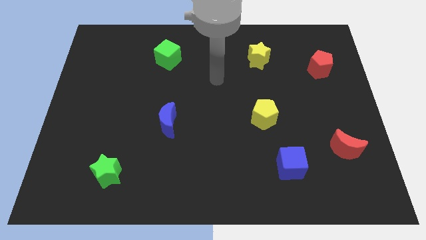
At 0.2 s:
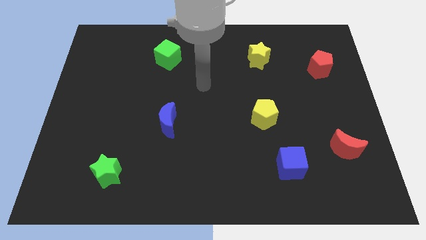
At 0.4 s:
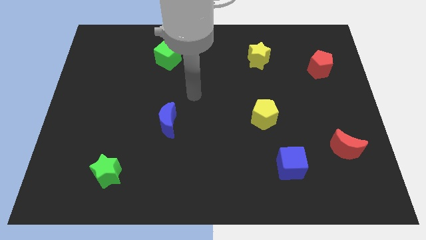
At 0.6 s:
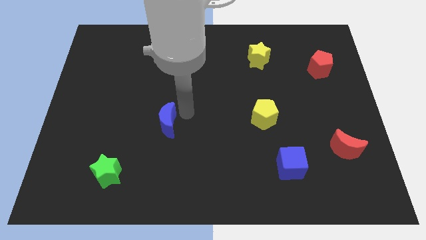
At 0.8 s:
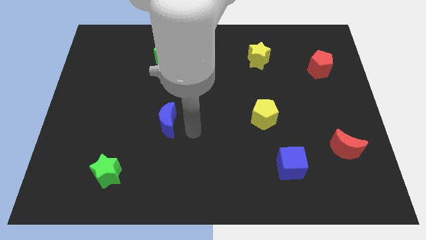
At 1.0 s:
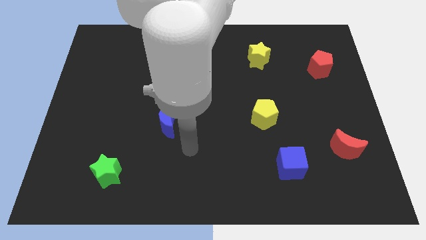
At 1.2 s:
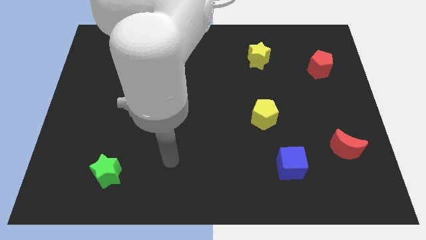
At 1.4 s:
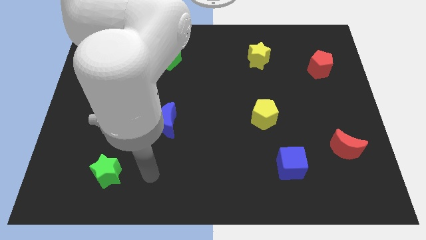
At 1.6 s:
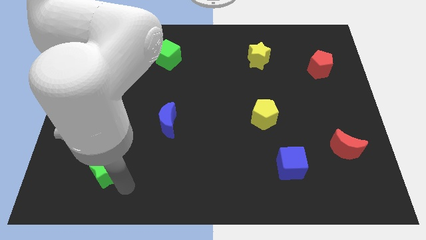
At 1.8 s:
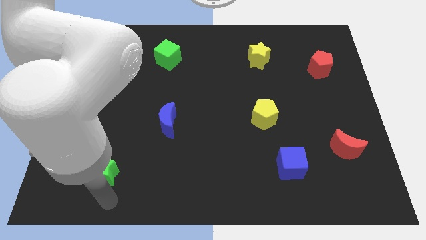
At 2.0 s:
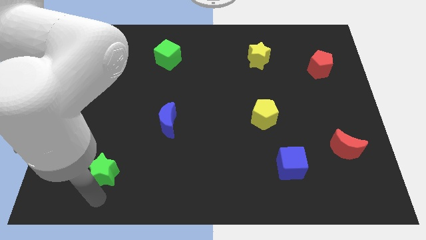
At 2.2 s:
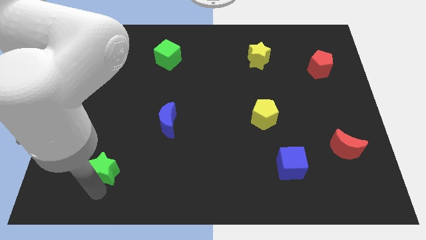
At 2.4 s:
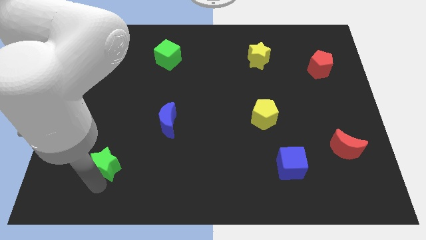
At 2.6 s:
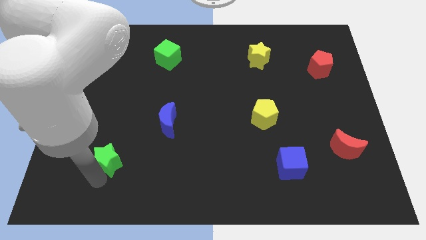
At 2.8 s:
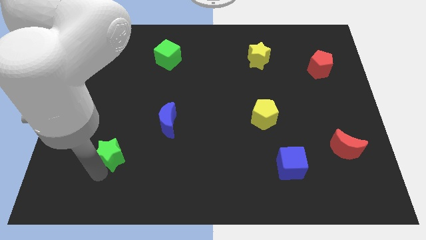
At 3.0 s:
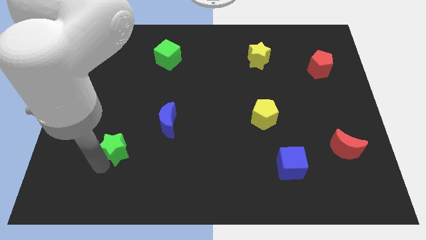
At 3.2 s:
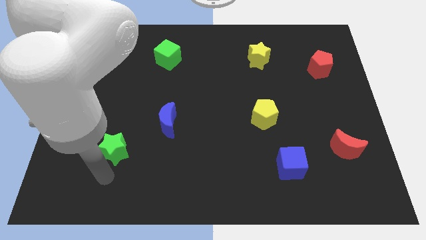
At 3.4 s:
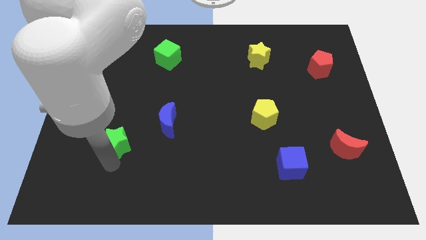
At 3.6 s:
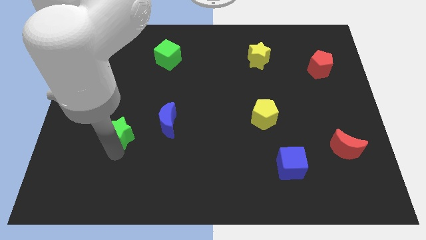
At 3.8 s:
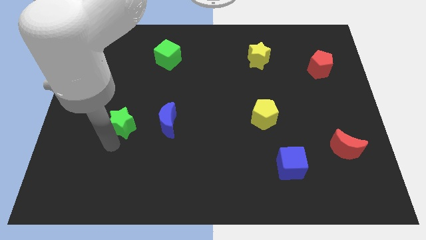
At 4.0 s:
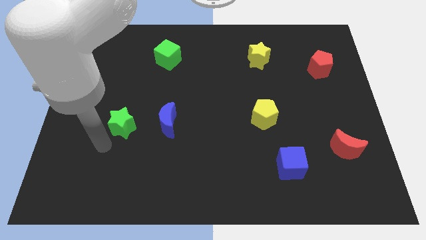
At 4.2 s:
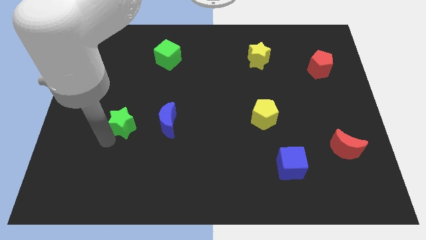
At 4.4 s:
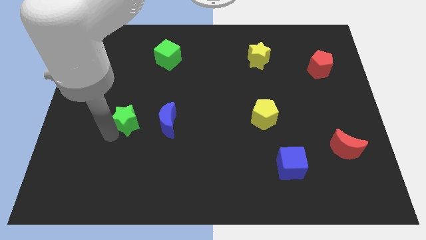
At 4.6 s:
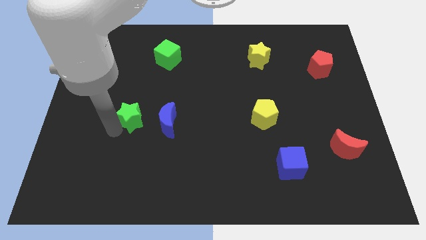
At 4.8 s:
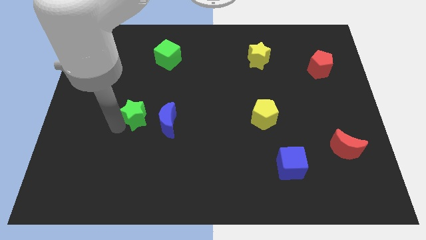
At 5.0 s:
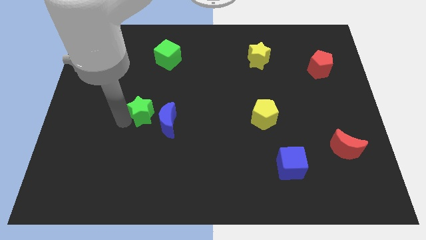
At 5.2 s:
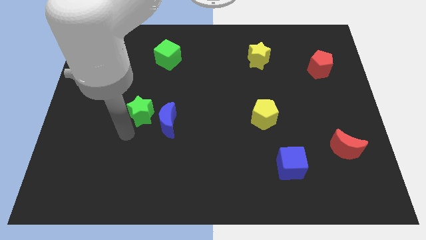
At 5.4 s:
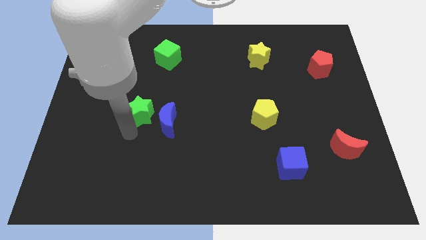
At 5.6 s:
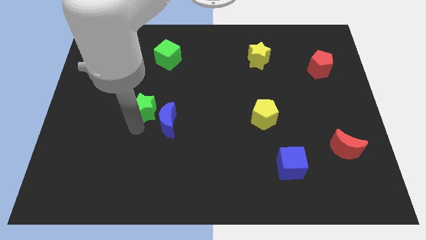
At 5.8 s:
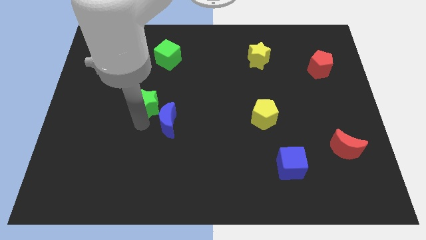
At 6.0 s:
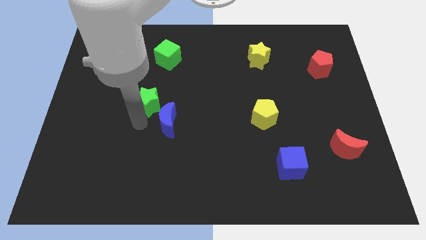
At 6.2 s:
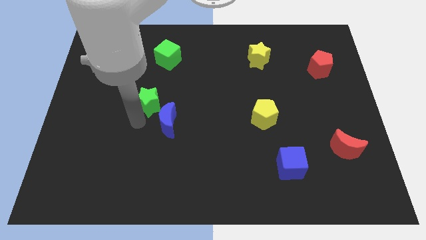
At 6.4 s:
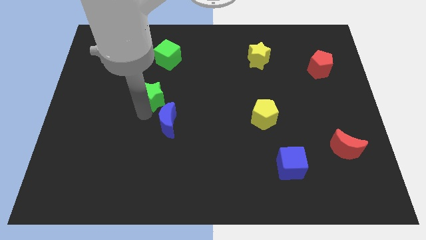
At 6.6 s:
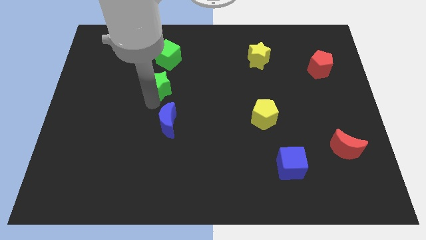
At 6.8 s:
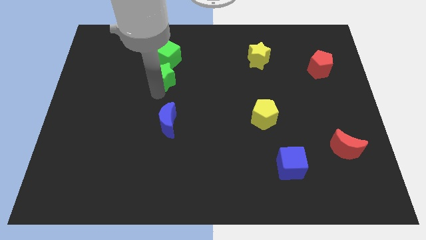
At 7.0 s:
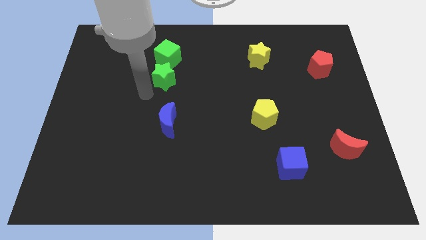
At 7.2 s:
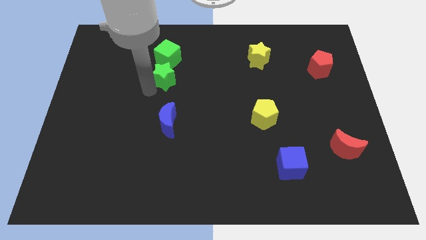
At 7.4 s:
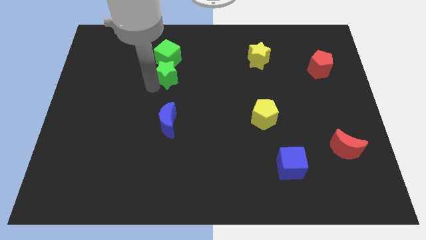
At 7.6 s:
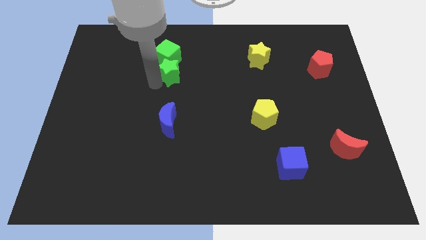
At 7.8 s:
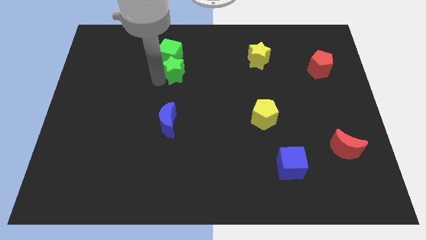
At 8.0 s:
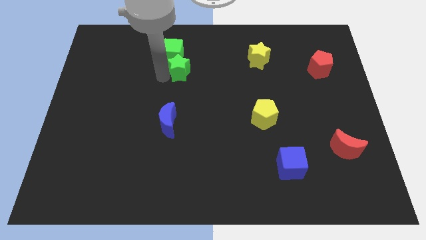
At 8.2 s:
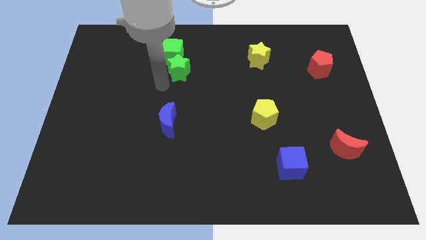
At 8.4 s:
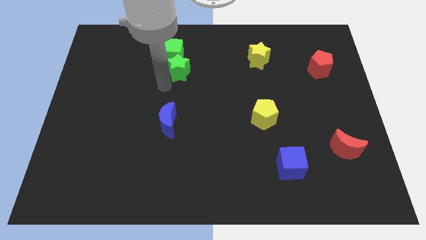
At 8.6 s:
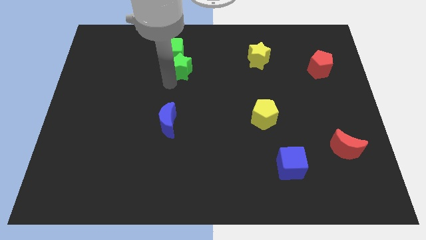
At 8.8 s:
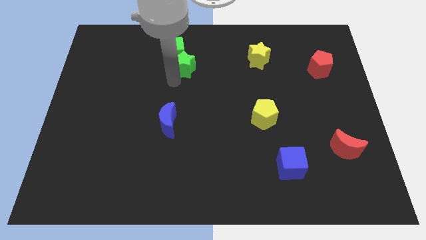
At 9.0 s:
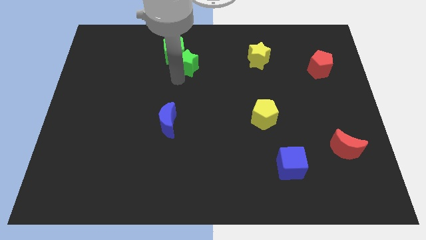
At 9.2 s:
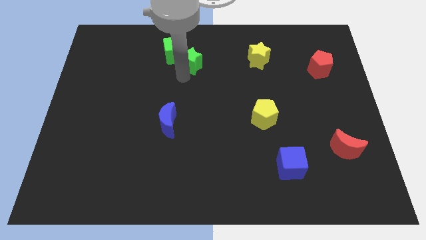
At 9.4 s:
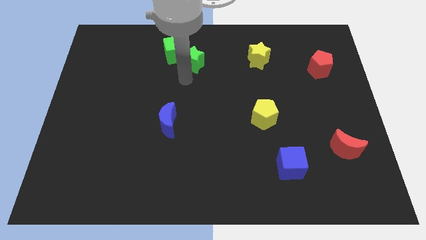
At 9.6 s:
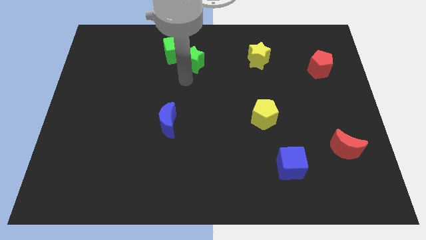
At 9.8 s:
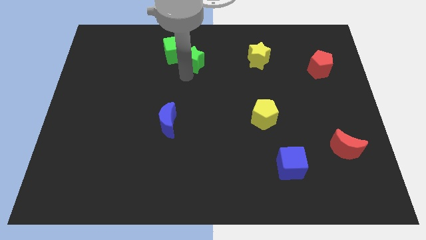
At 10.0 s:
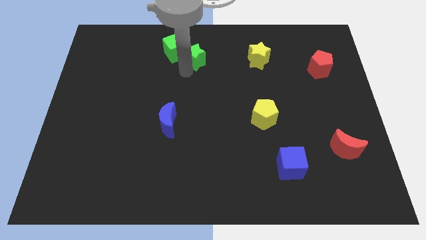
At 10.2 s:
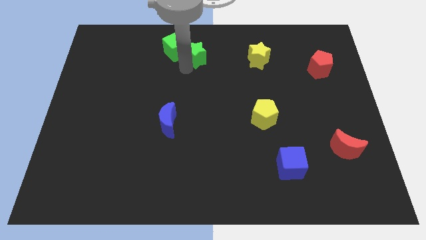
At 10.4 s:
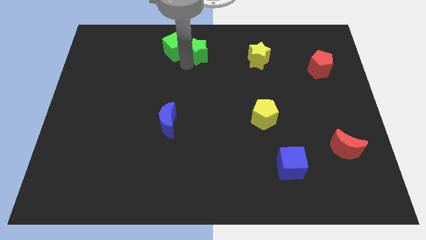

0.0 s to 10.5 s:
move the green star to the towards your base
